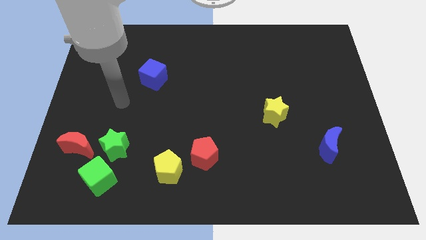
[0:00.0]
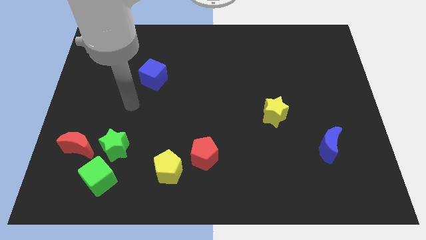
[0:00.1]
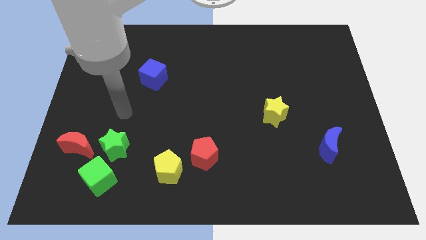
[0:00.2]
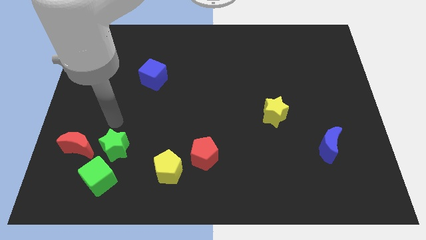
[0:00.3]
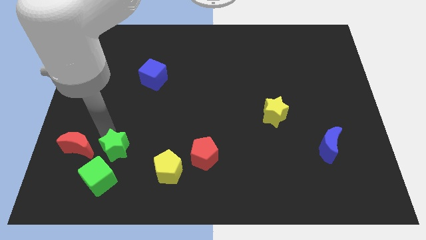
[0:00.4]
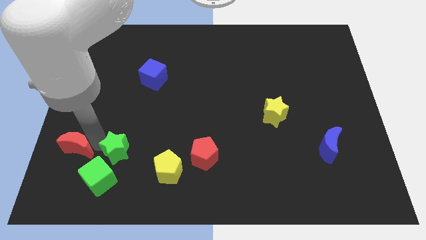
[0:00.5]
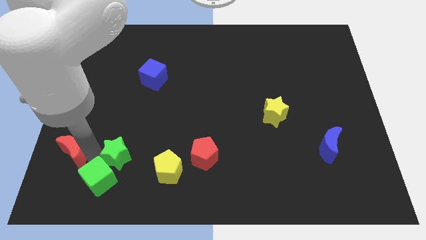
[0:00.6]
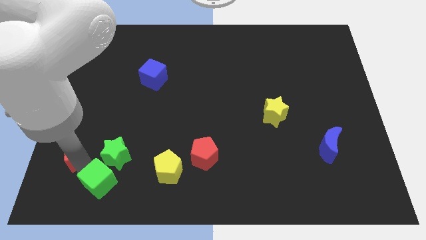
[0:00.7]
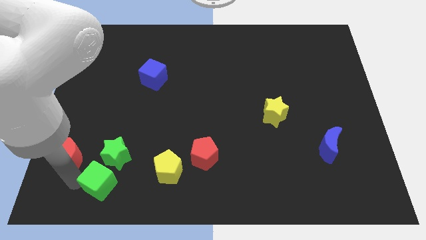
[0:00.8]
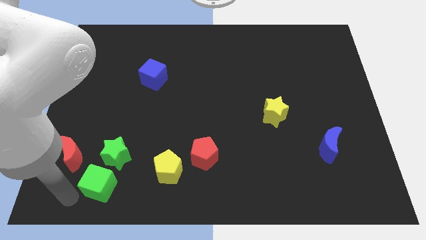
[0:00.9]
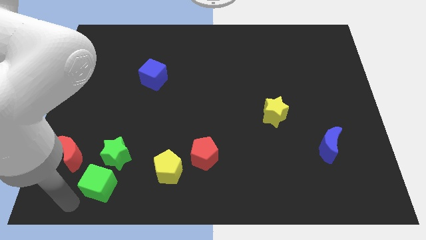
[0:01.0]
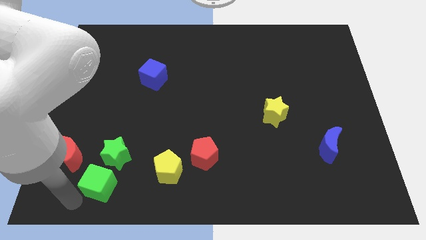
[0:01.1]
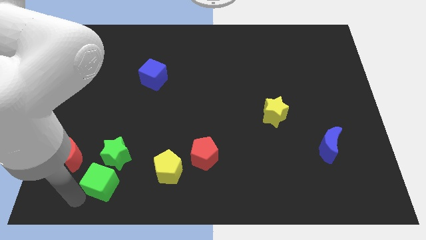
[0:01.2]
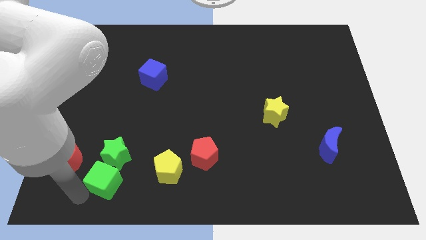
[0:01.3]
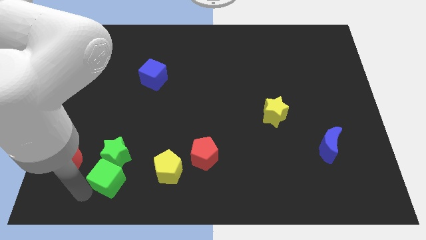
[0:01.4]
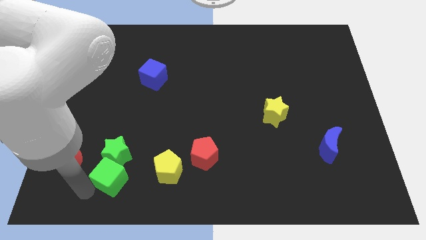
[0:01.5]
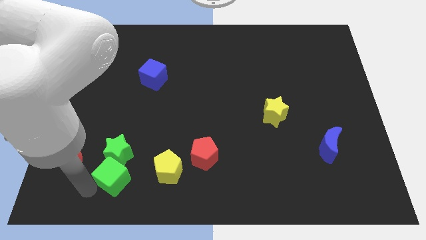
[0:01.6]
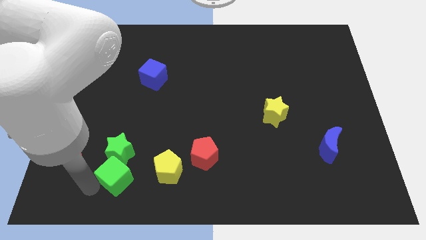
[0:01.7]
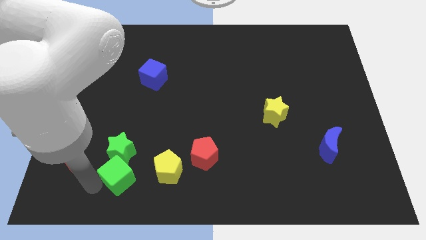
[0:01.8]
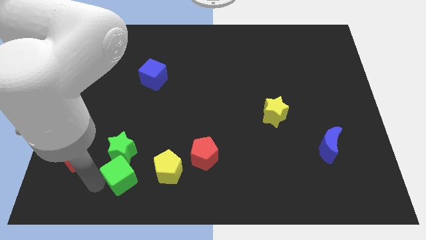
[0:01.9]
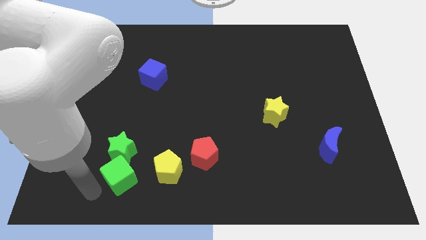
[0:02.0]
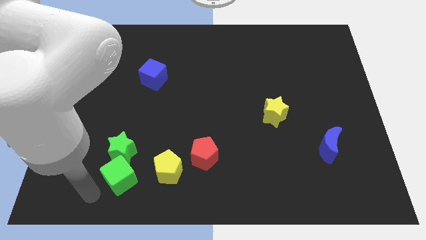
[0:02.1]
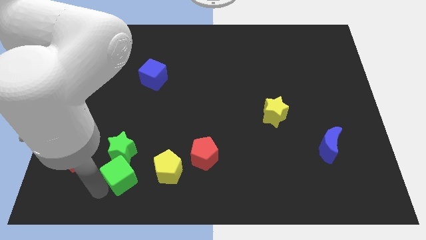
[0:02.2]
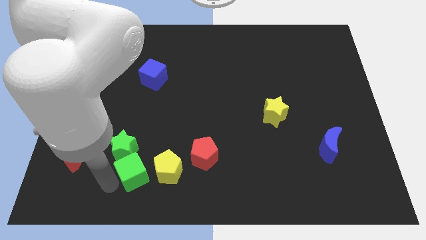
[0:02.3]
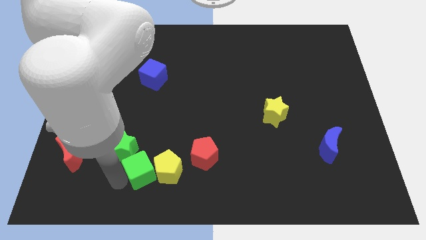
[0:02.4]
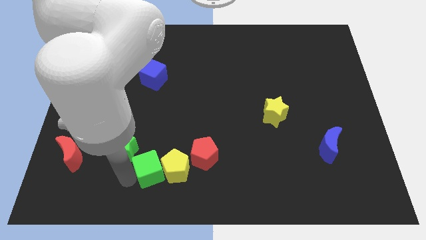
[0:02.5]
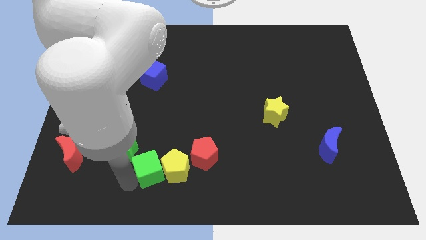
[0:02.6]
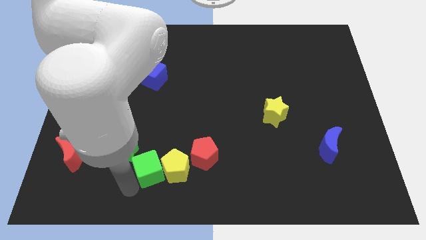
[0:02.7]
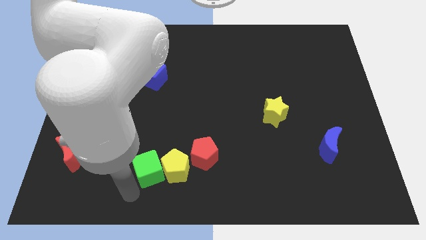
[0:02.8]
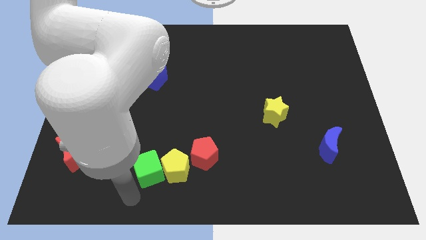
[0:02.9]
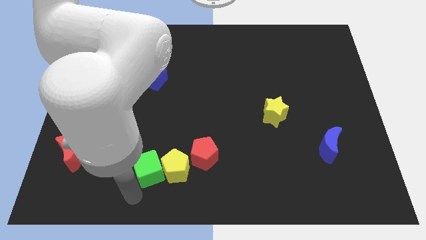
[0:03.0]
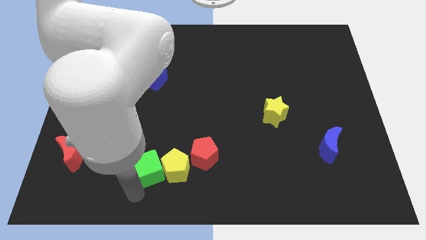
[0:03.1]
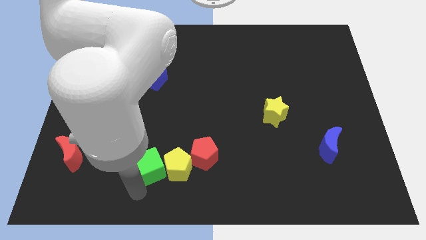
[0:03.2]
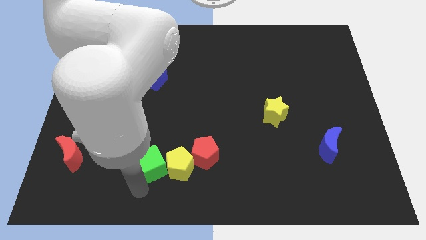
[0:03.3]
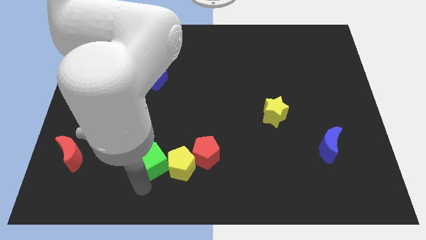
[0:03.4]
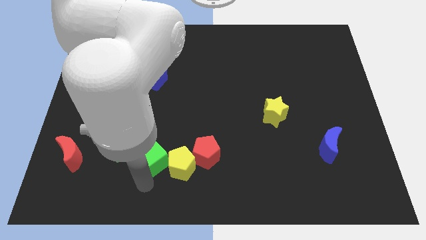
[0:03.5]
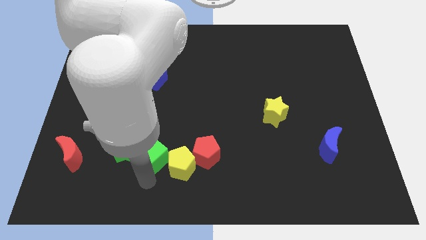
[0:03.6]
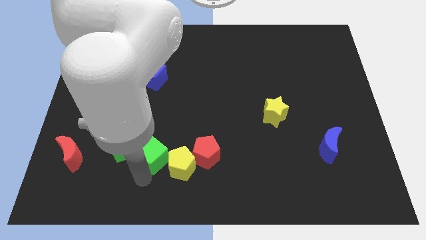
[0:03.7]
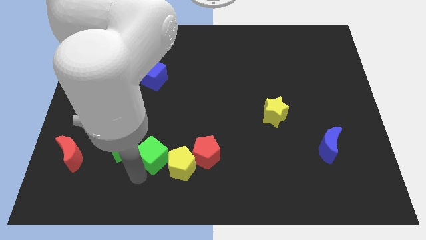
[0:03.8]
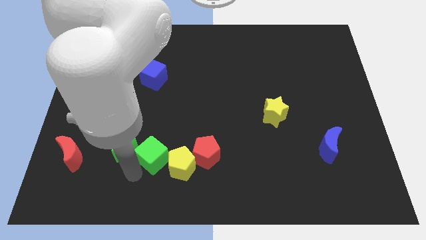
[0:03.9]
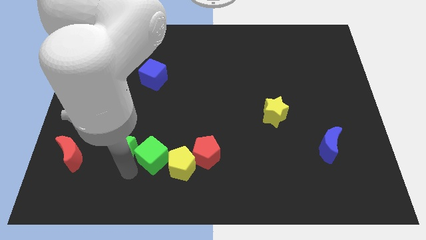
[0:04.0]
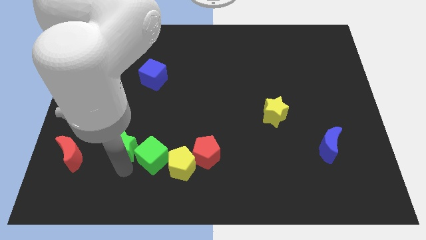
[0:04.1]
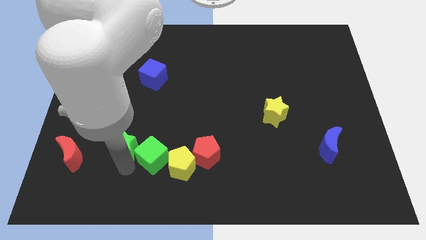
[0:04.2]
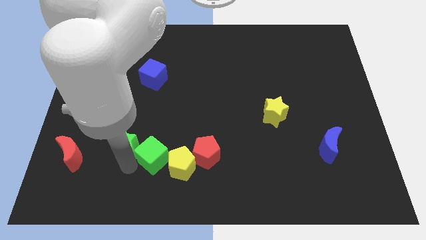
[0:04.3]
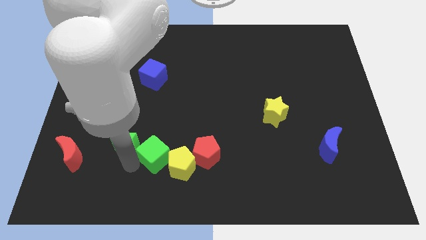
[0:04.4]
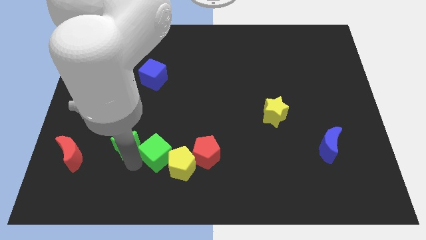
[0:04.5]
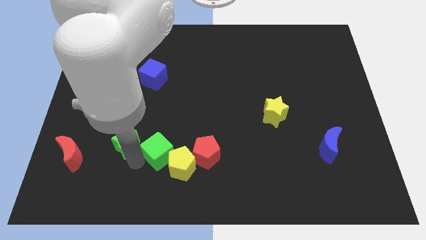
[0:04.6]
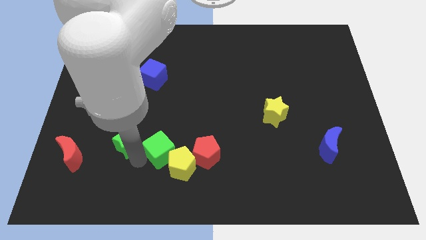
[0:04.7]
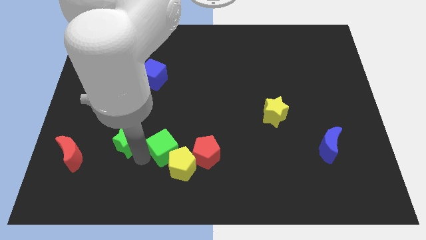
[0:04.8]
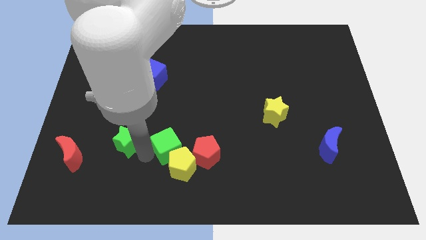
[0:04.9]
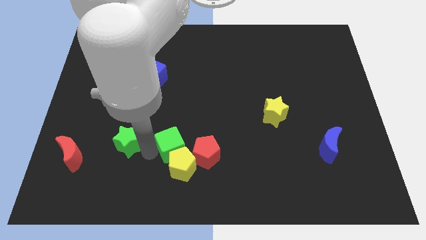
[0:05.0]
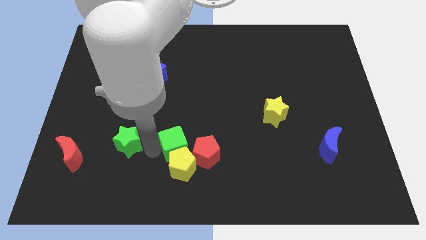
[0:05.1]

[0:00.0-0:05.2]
push the green cube to the top right side of the yellow pentagon
